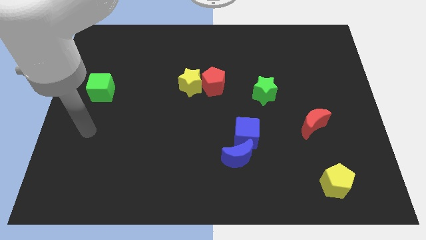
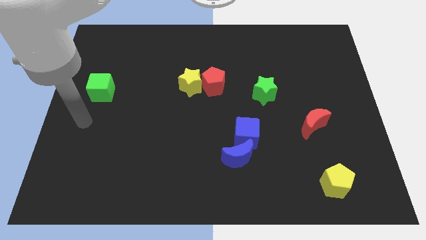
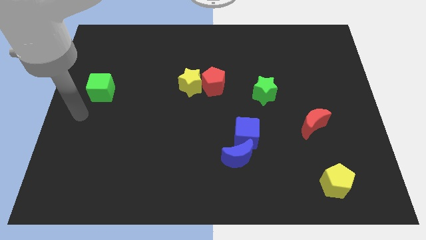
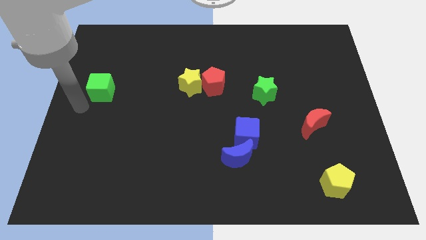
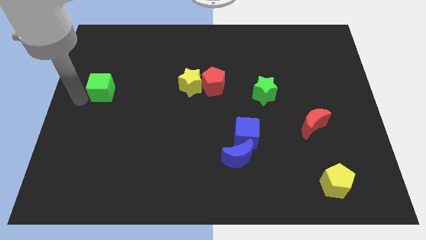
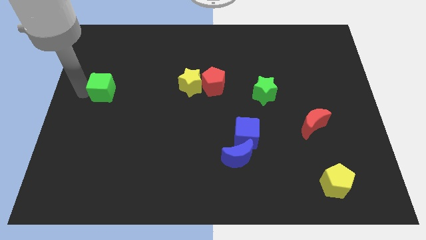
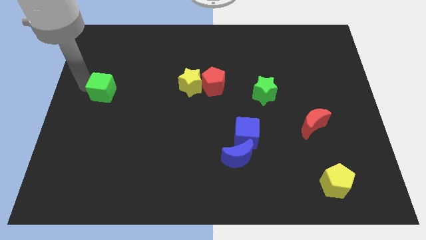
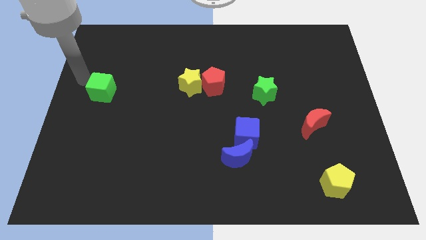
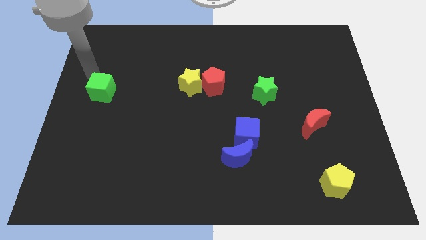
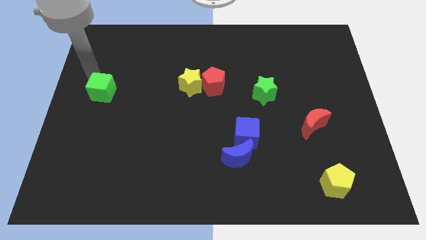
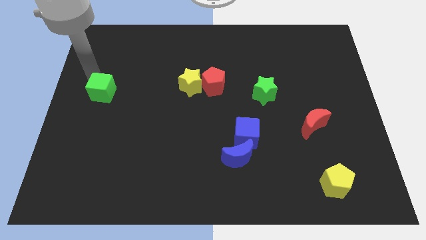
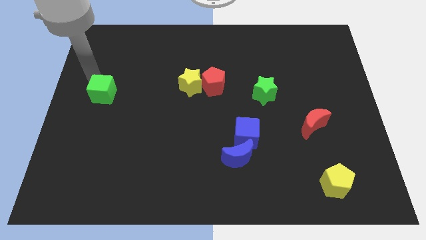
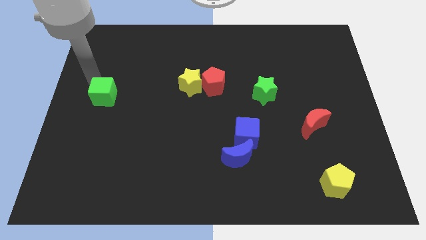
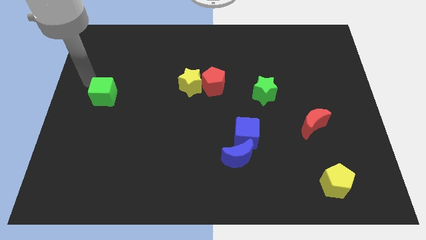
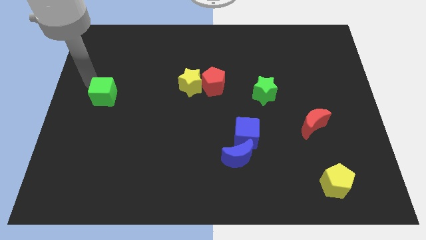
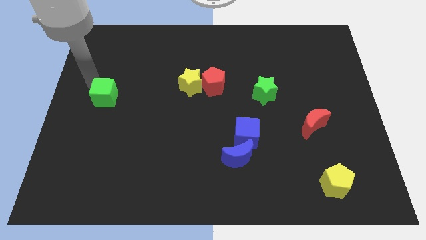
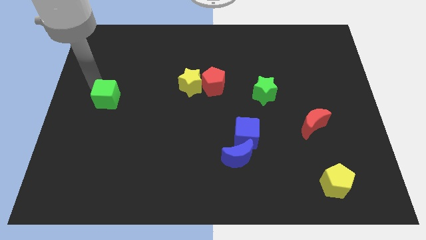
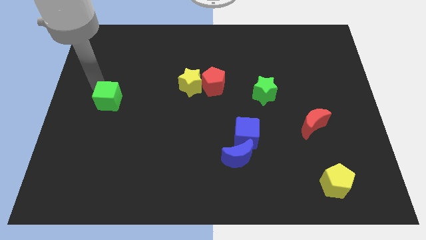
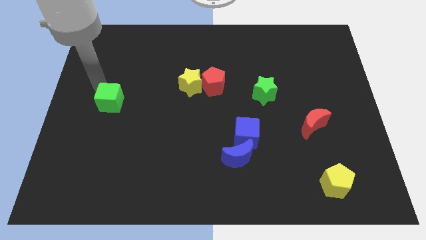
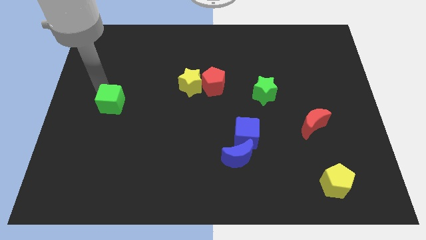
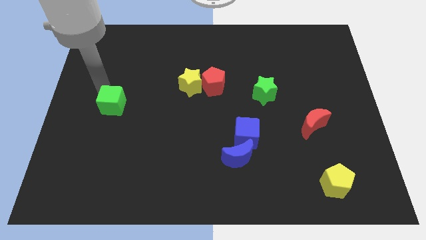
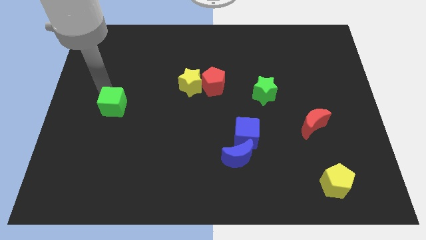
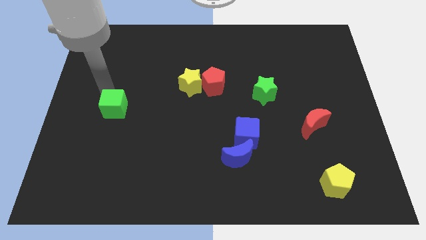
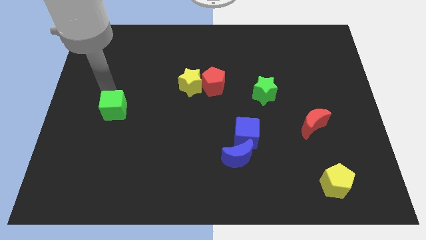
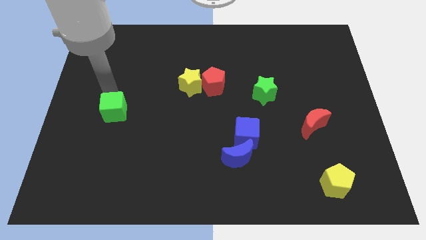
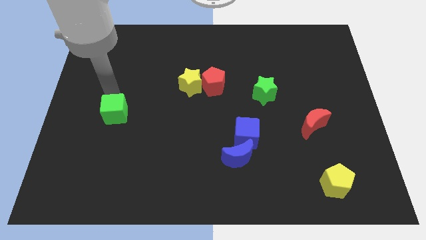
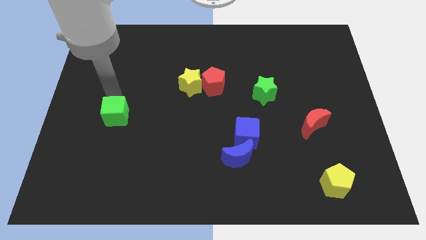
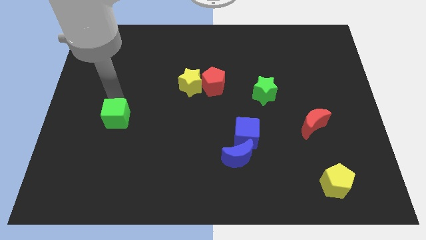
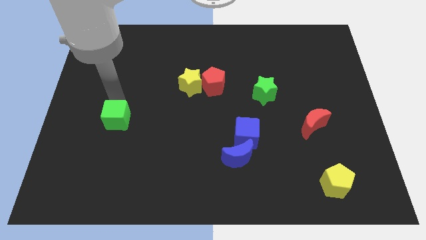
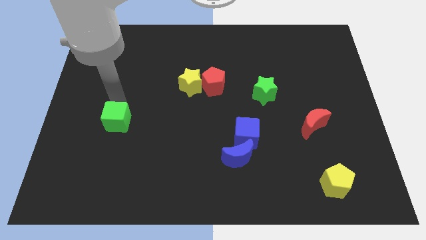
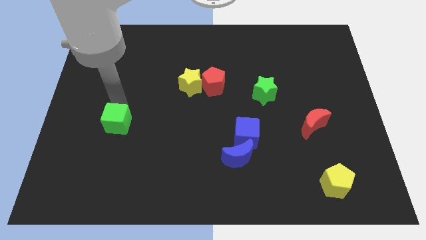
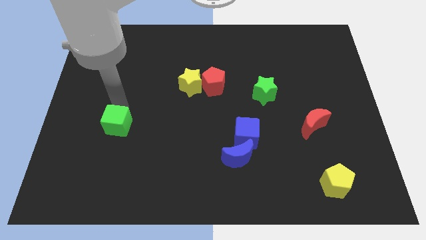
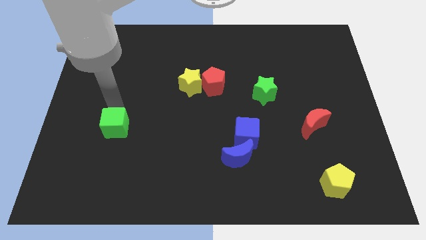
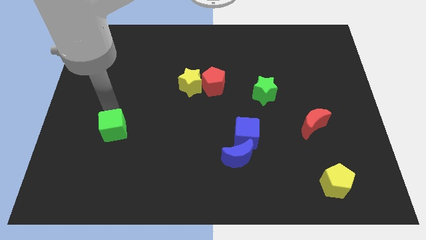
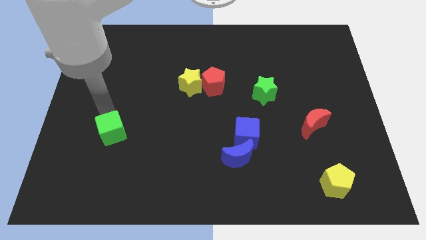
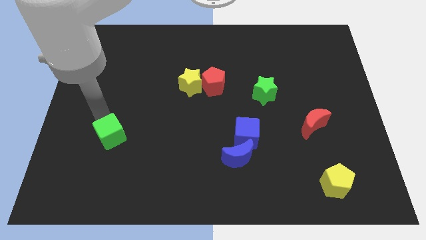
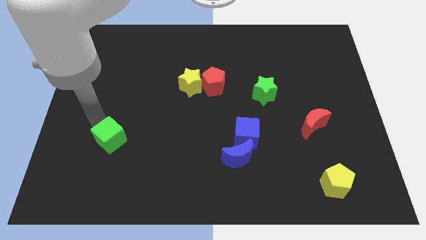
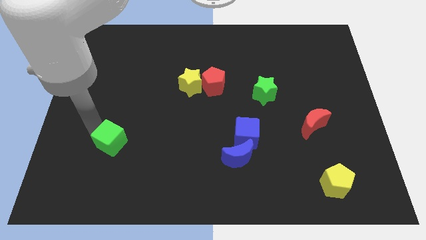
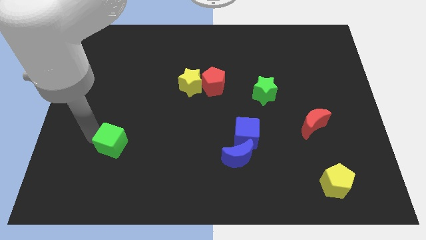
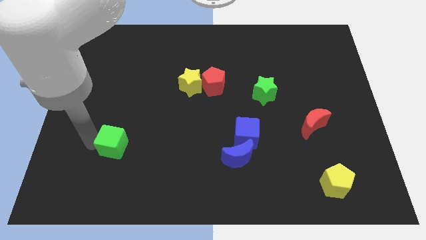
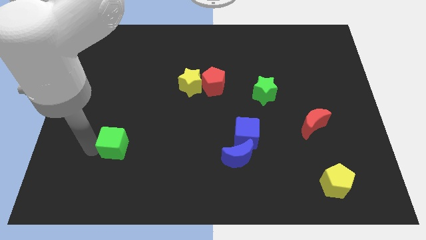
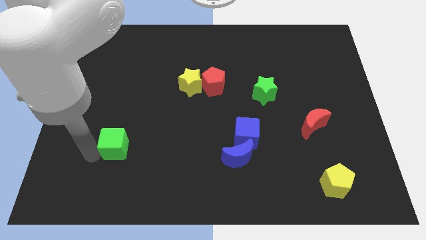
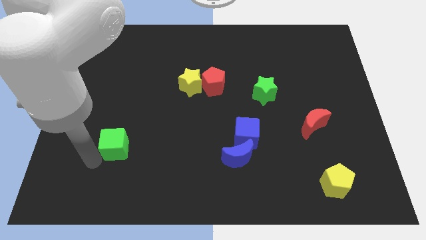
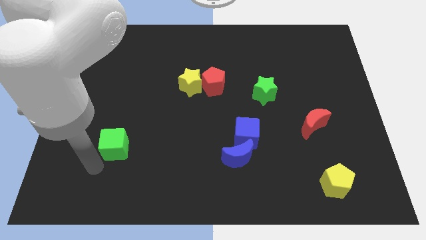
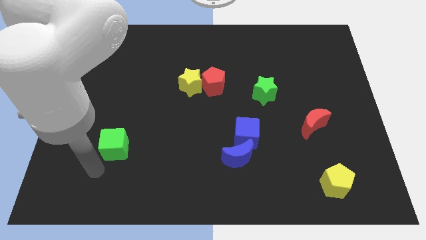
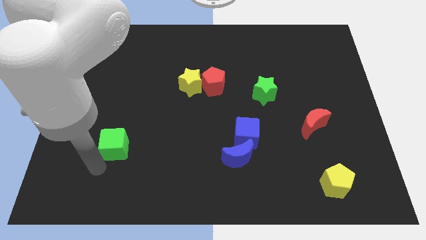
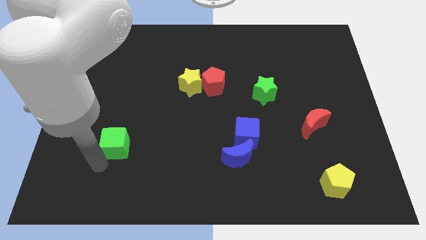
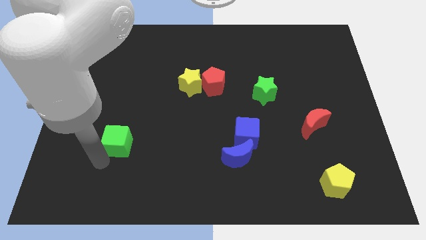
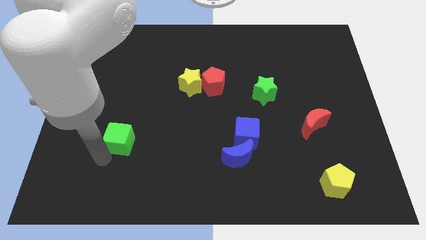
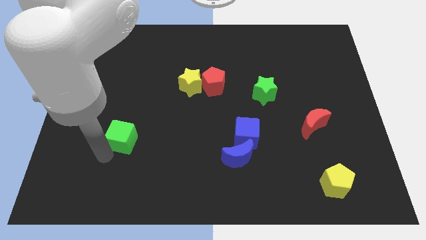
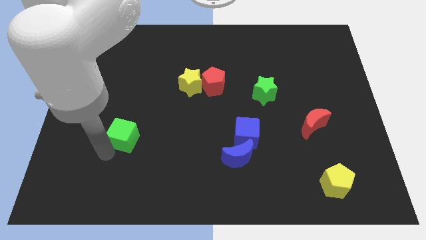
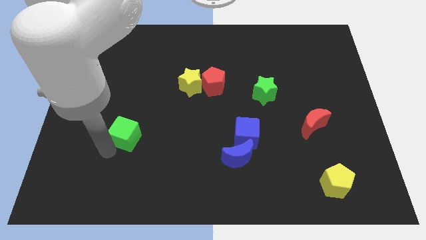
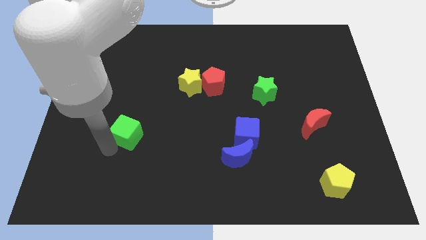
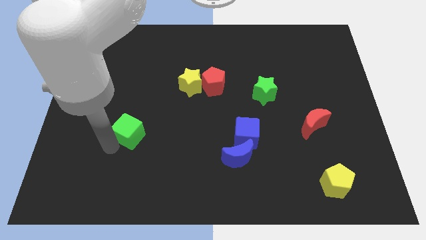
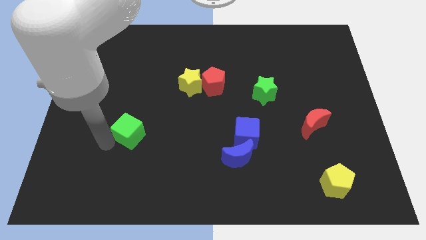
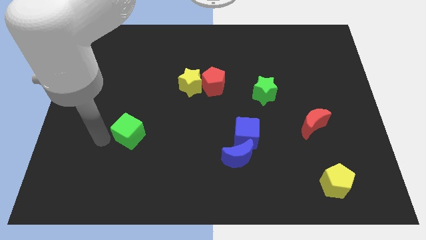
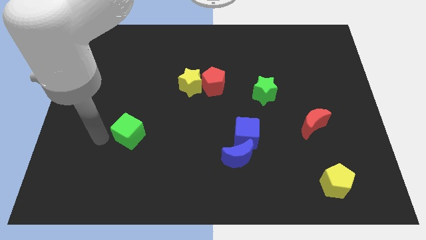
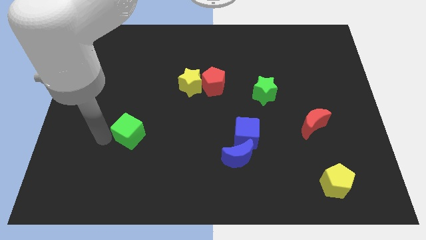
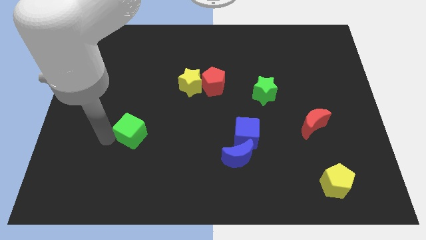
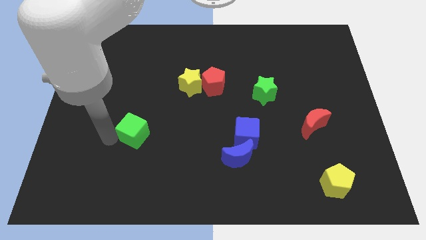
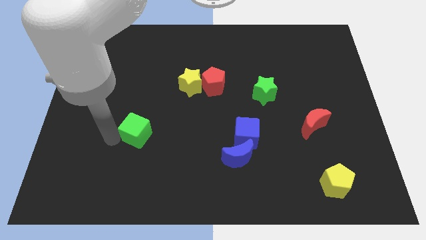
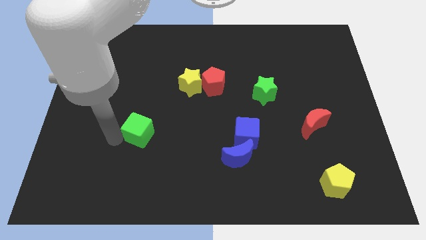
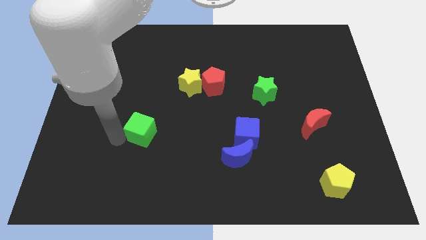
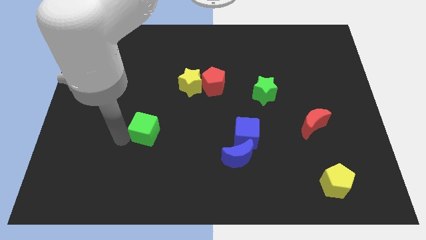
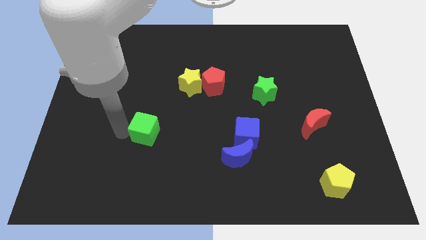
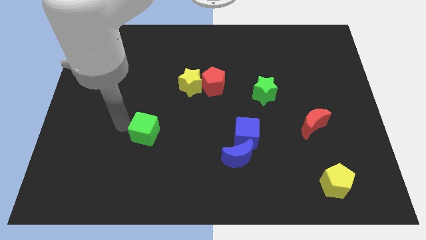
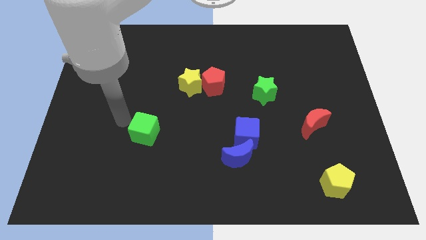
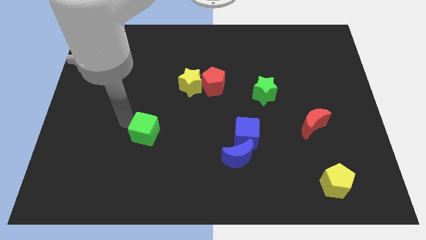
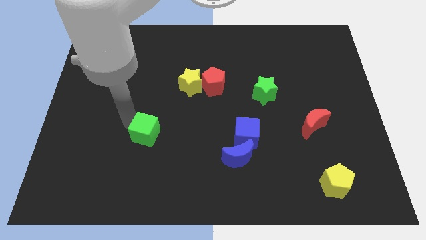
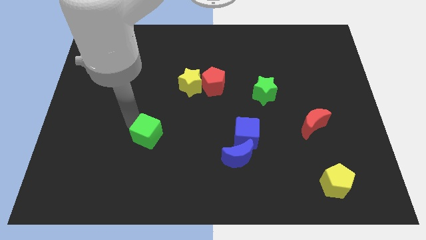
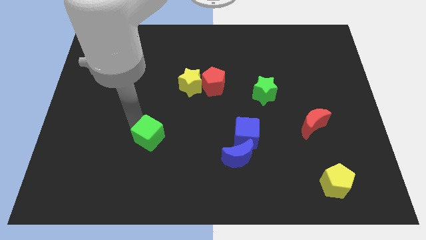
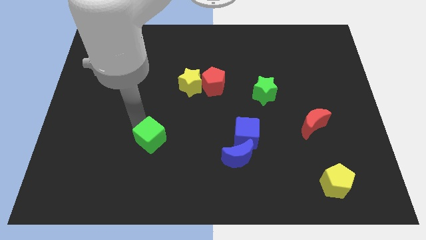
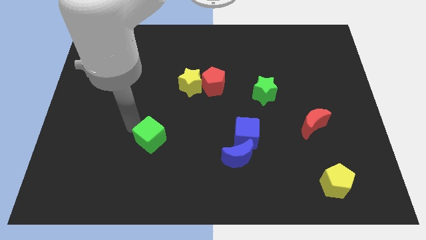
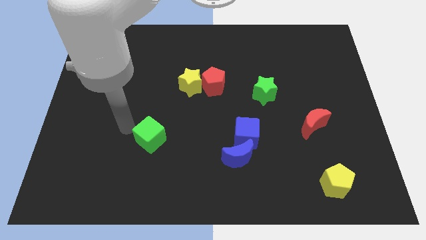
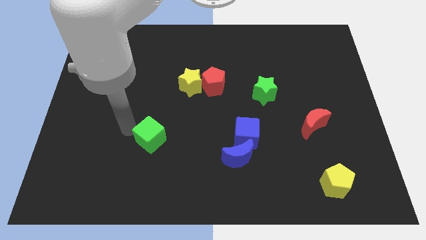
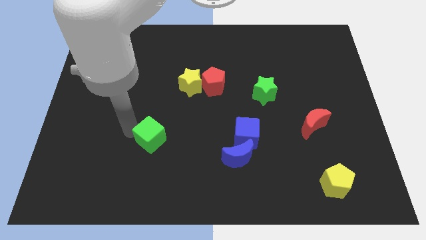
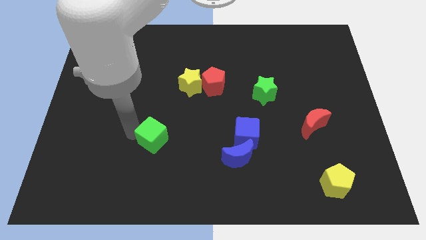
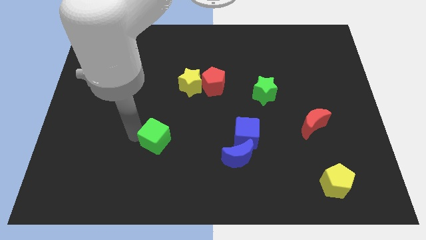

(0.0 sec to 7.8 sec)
push the green cube down and right
